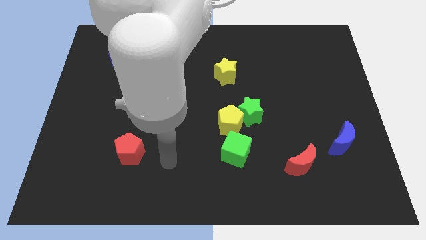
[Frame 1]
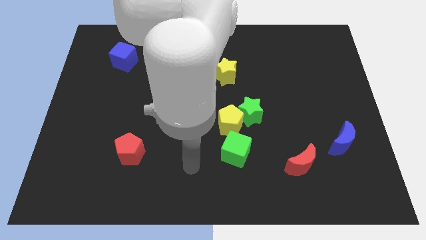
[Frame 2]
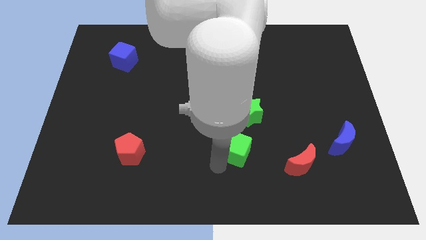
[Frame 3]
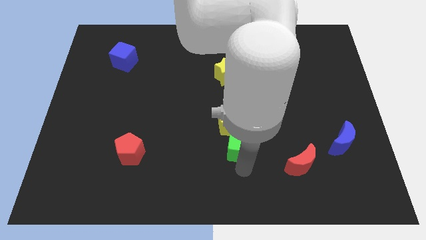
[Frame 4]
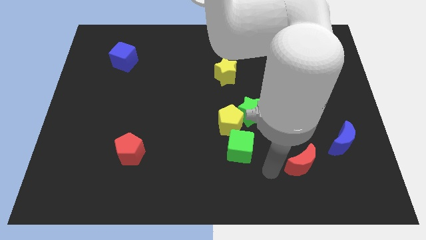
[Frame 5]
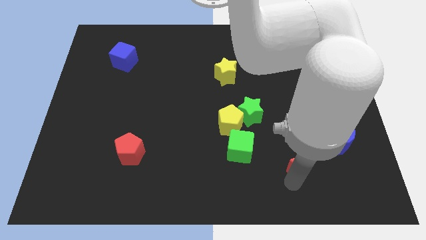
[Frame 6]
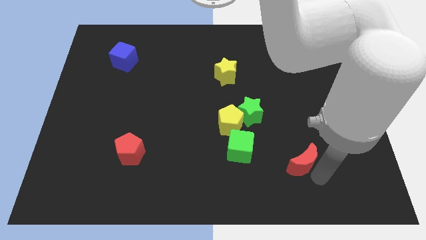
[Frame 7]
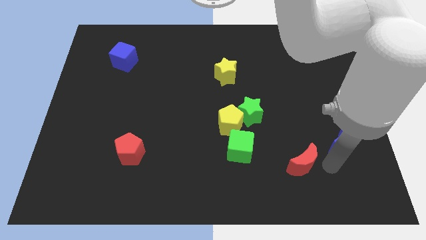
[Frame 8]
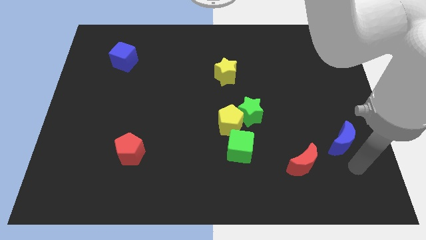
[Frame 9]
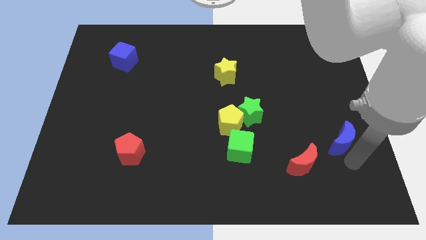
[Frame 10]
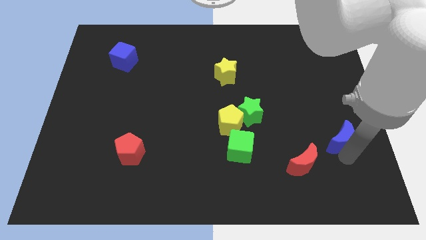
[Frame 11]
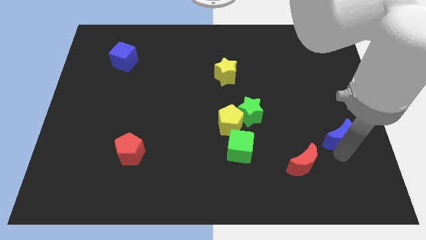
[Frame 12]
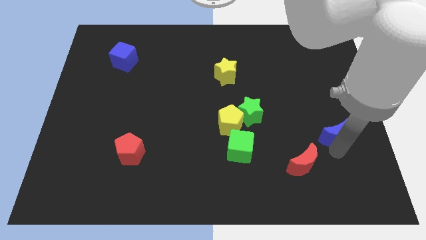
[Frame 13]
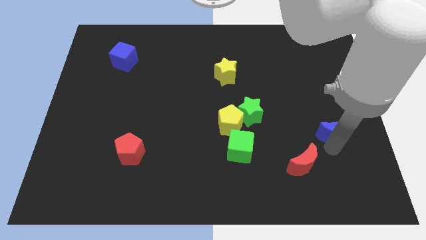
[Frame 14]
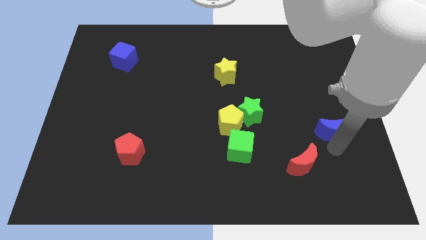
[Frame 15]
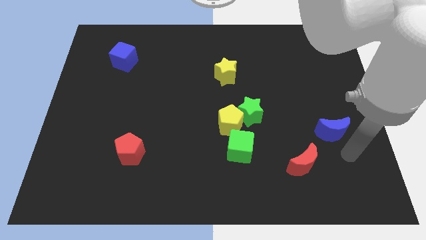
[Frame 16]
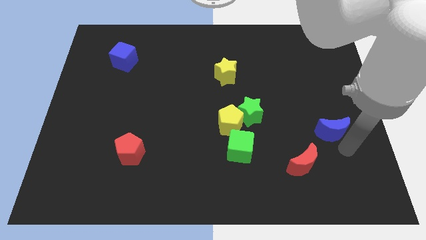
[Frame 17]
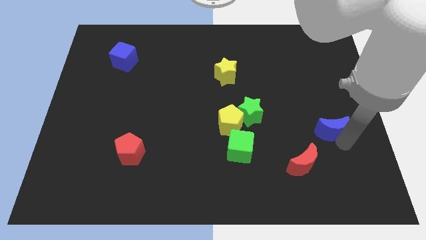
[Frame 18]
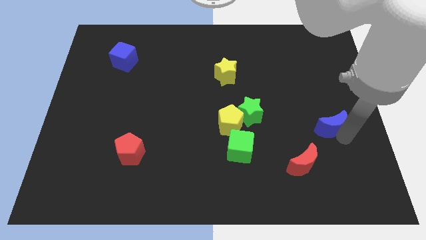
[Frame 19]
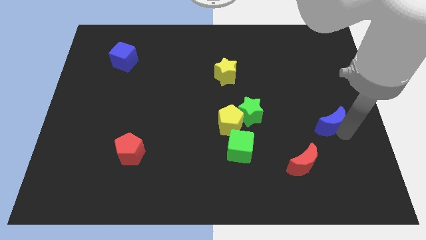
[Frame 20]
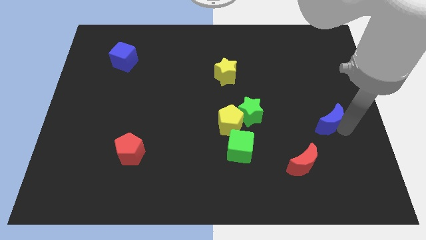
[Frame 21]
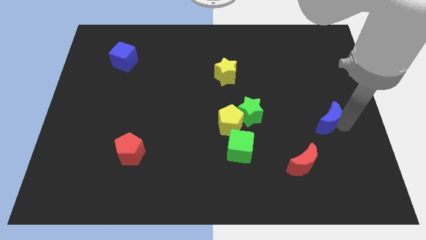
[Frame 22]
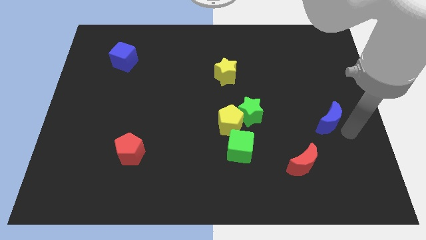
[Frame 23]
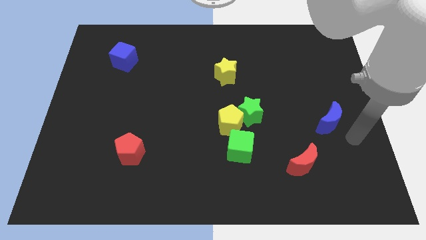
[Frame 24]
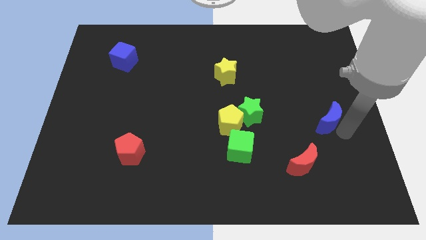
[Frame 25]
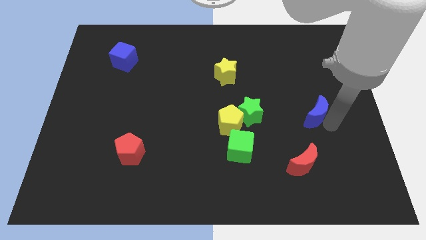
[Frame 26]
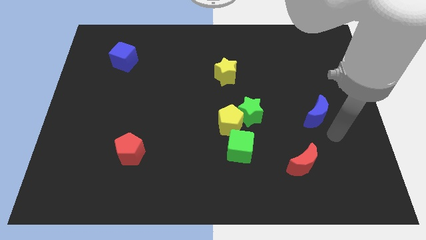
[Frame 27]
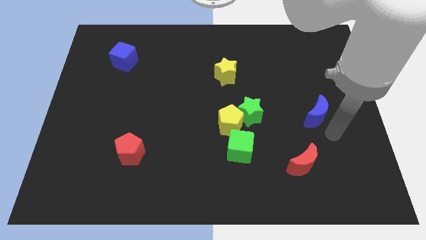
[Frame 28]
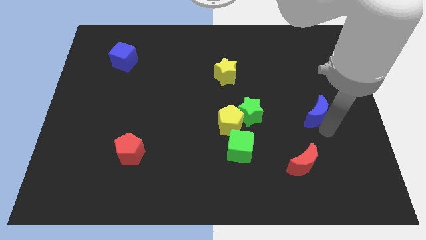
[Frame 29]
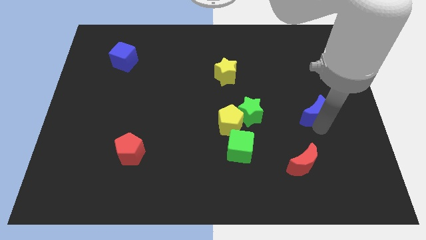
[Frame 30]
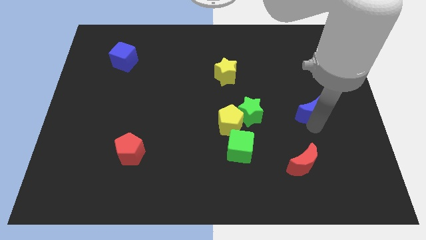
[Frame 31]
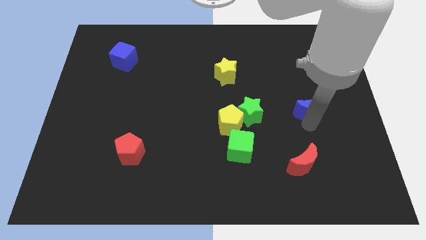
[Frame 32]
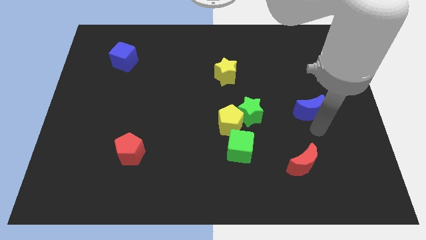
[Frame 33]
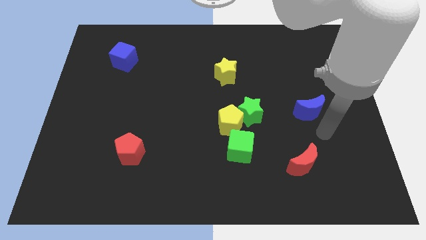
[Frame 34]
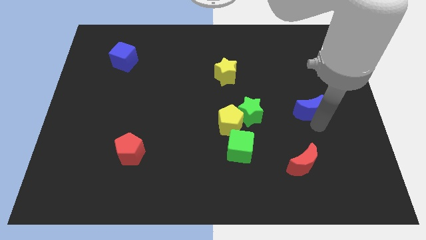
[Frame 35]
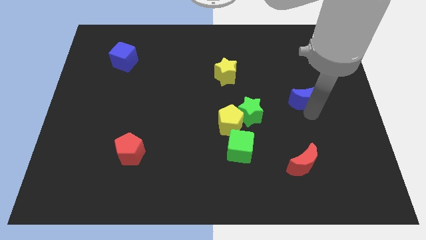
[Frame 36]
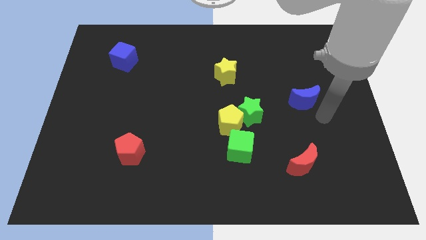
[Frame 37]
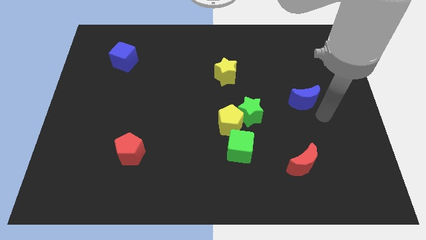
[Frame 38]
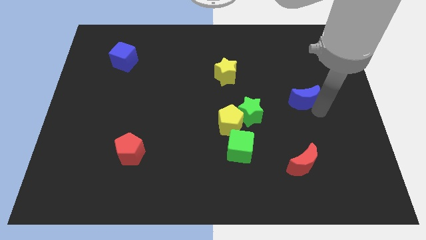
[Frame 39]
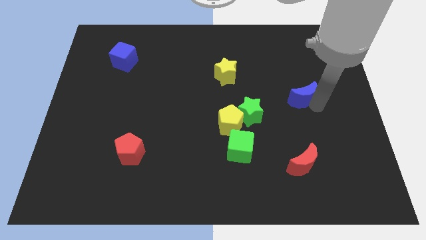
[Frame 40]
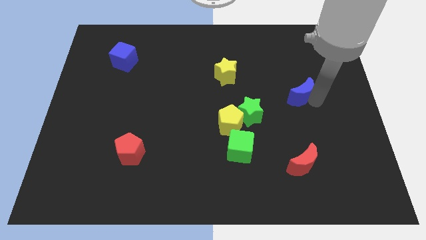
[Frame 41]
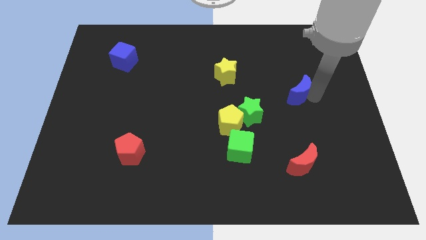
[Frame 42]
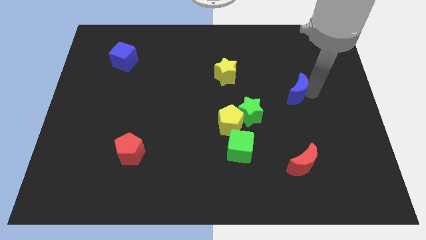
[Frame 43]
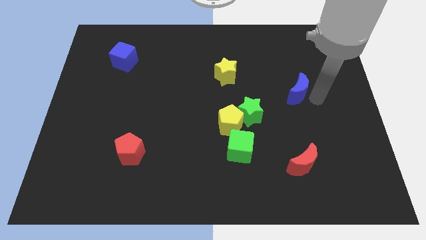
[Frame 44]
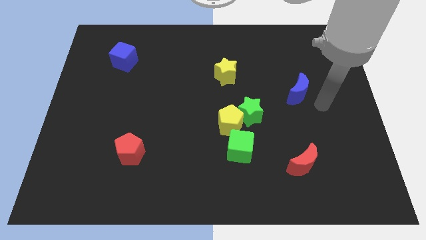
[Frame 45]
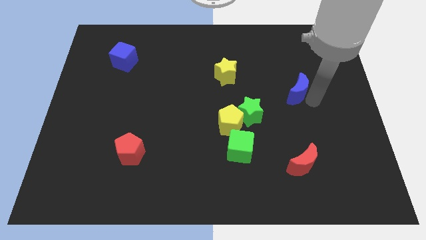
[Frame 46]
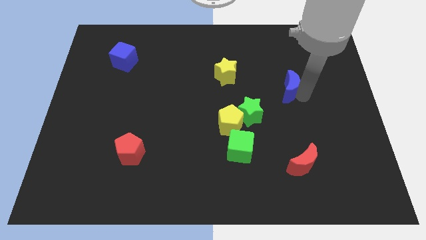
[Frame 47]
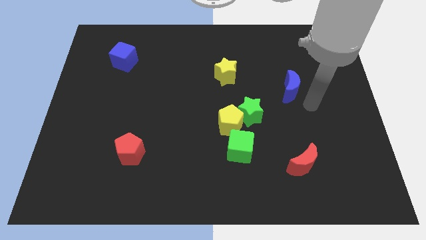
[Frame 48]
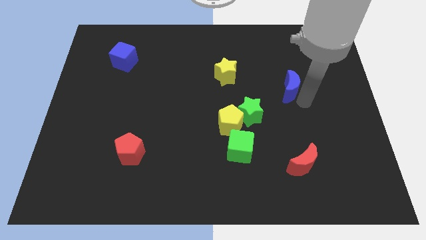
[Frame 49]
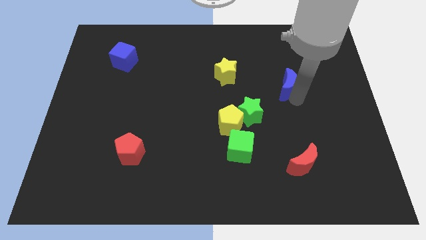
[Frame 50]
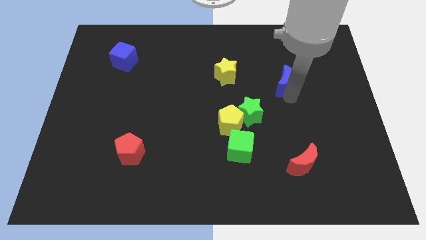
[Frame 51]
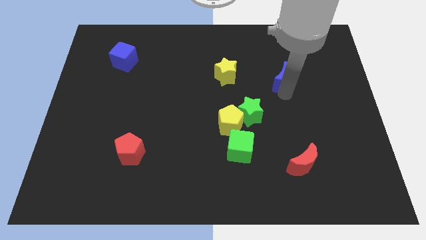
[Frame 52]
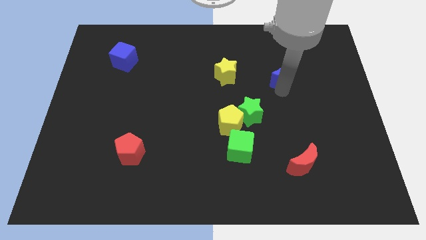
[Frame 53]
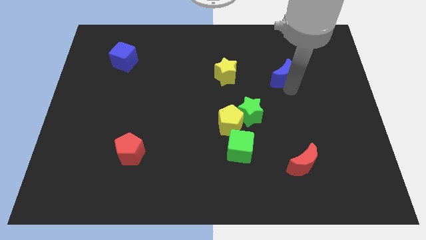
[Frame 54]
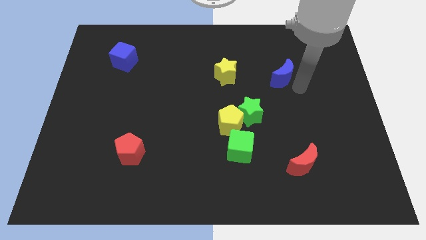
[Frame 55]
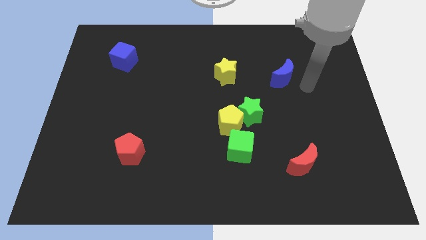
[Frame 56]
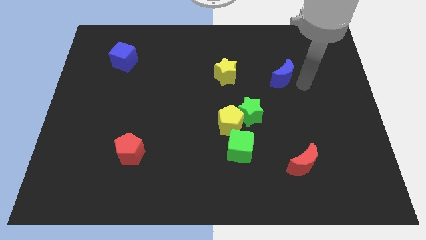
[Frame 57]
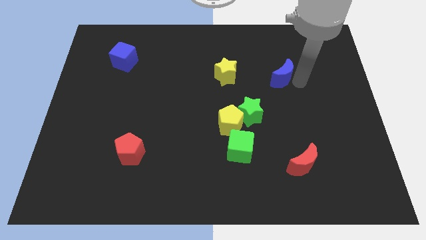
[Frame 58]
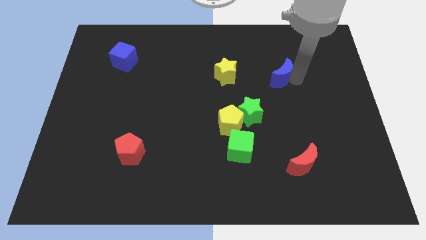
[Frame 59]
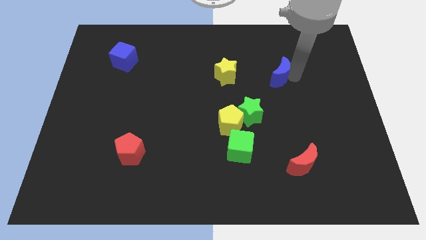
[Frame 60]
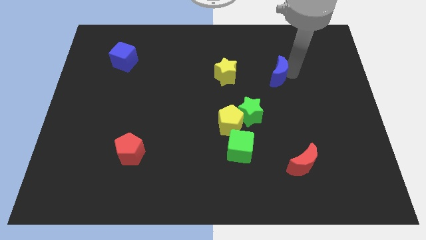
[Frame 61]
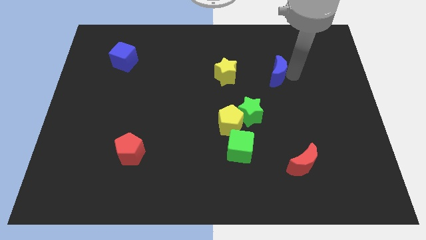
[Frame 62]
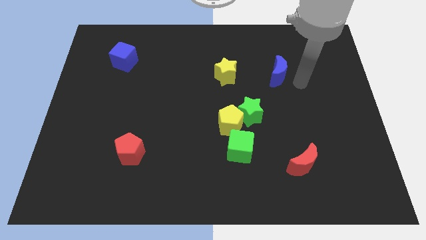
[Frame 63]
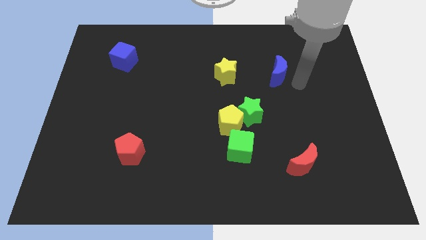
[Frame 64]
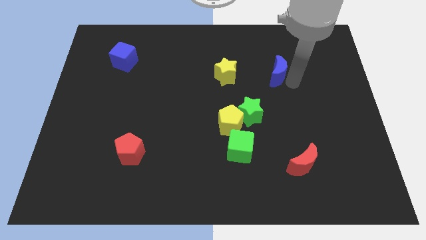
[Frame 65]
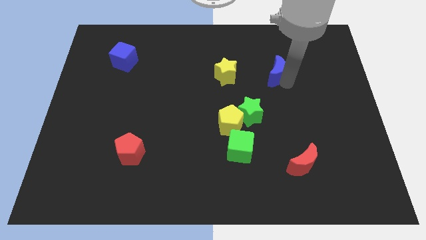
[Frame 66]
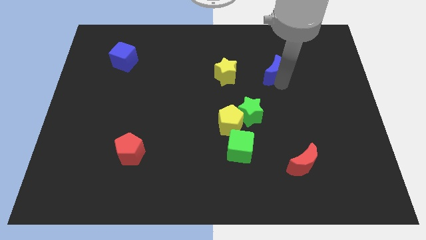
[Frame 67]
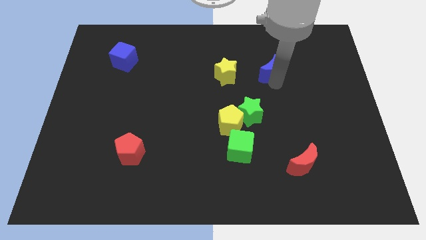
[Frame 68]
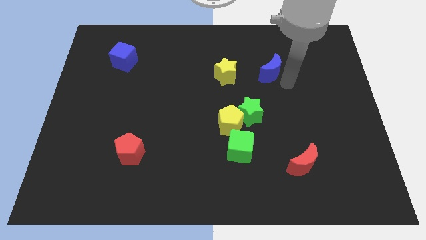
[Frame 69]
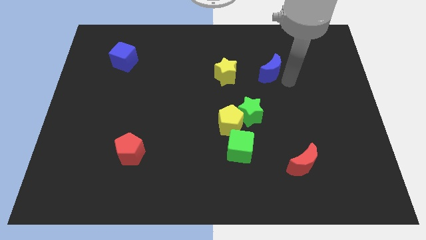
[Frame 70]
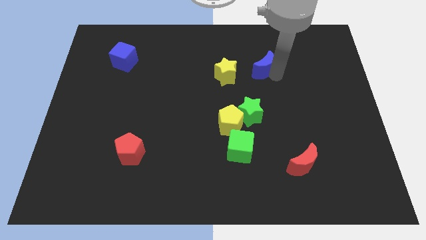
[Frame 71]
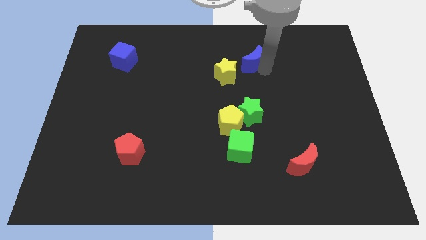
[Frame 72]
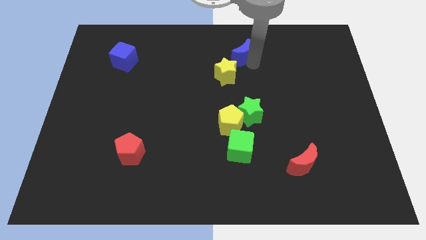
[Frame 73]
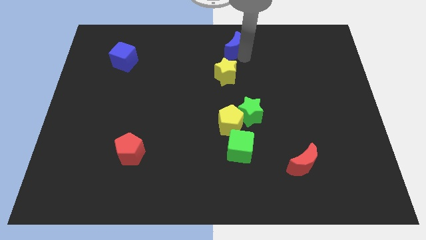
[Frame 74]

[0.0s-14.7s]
slide the blue moon to the top side
